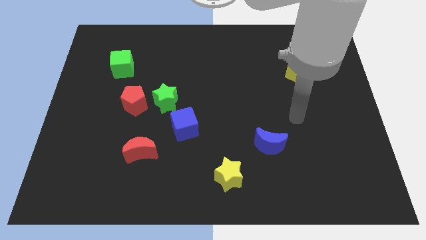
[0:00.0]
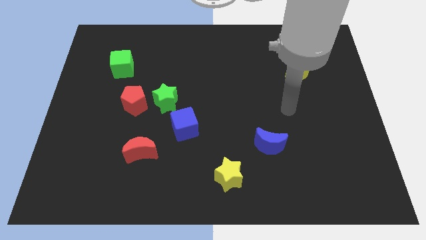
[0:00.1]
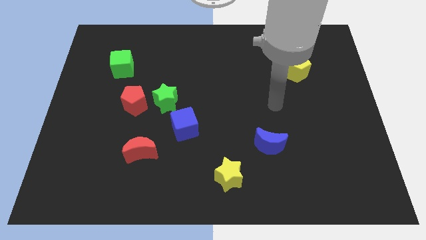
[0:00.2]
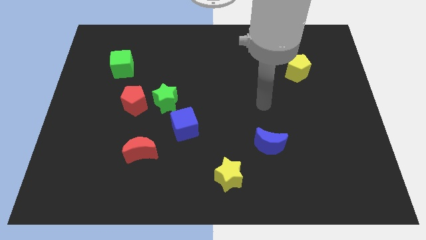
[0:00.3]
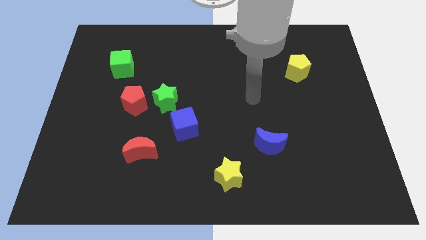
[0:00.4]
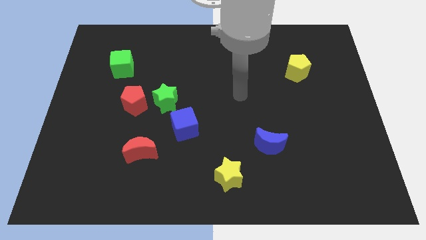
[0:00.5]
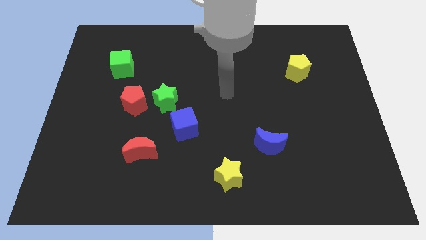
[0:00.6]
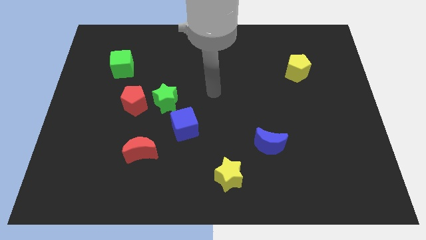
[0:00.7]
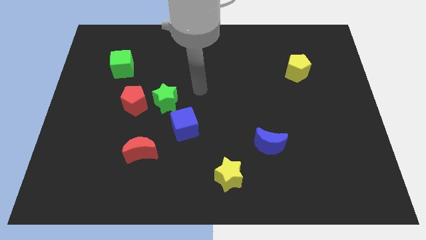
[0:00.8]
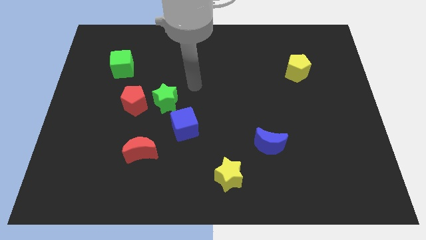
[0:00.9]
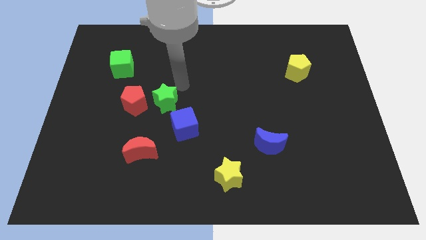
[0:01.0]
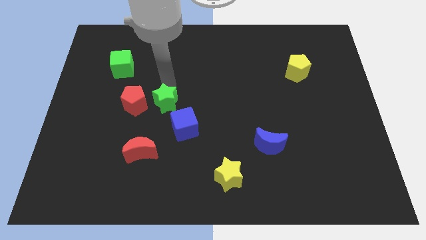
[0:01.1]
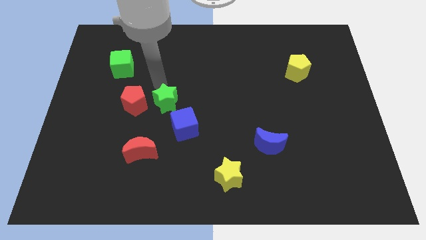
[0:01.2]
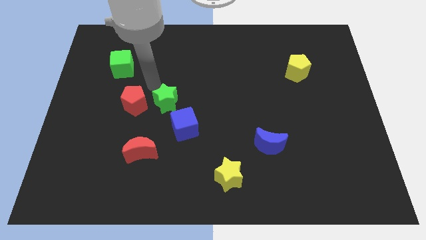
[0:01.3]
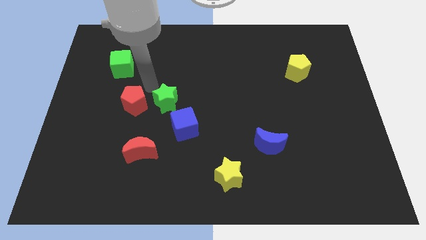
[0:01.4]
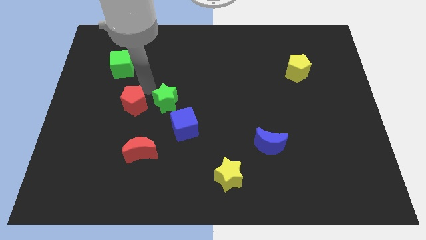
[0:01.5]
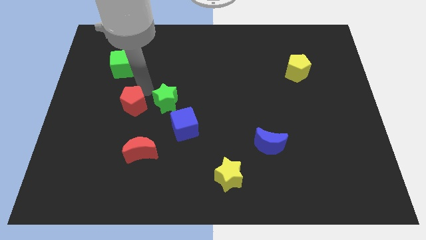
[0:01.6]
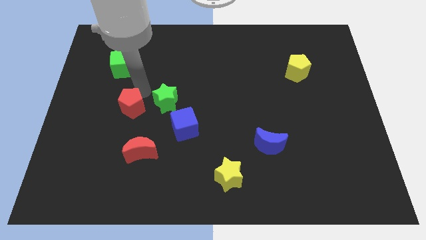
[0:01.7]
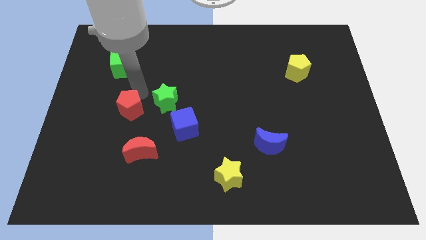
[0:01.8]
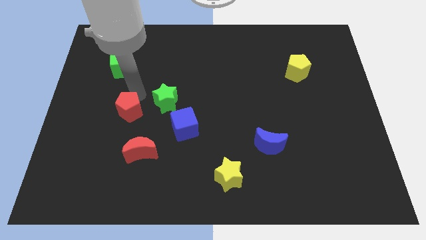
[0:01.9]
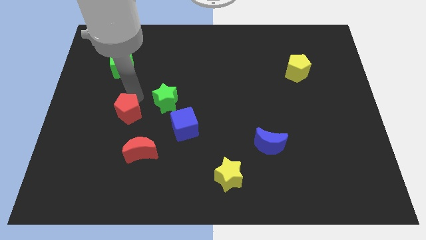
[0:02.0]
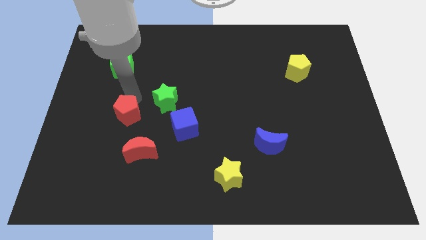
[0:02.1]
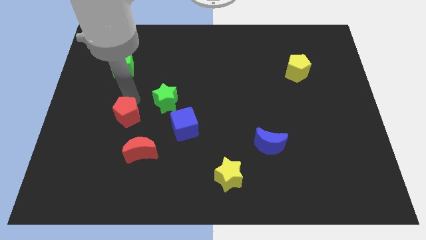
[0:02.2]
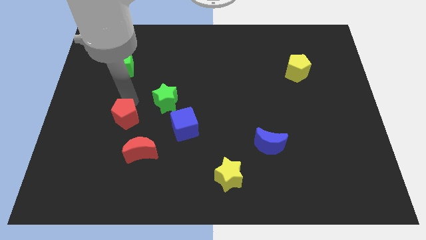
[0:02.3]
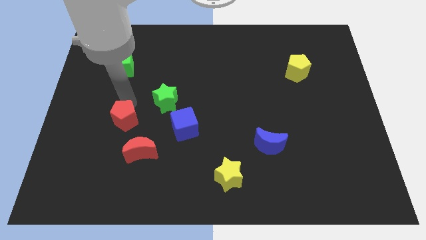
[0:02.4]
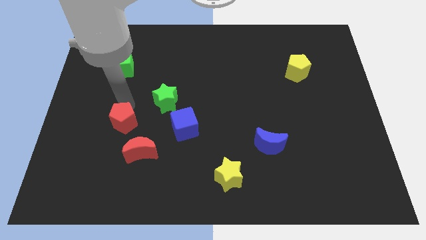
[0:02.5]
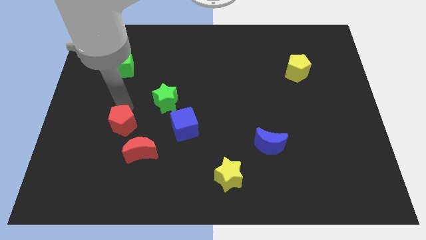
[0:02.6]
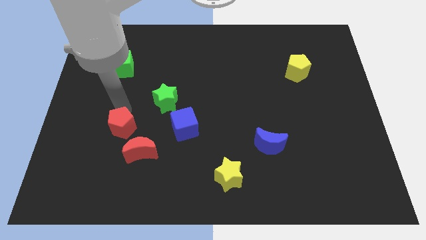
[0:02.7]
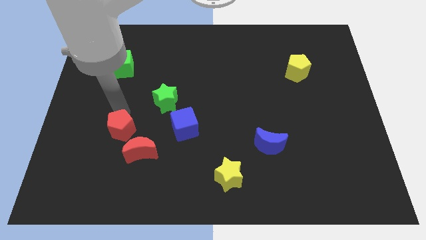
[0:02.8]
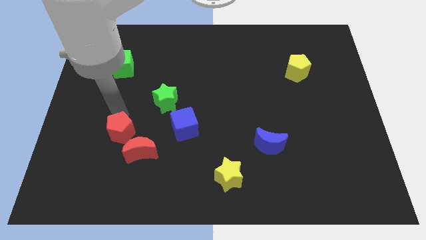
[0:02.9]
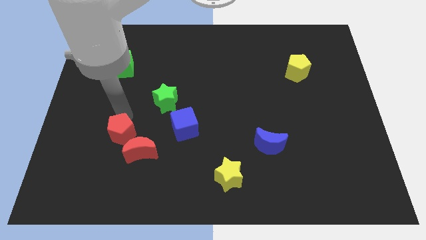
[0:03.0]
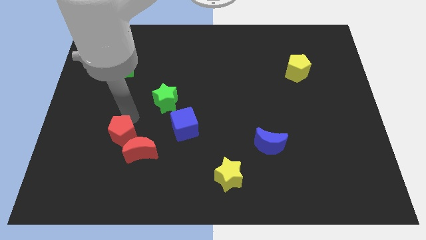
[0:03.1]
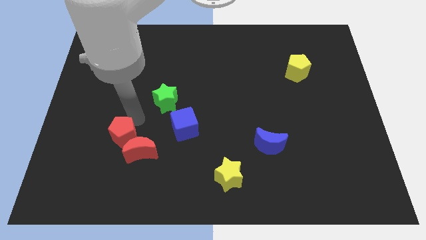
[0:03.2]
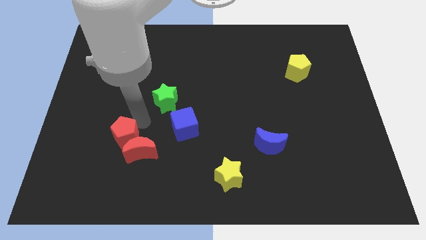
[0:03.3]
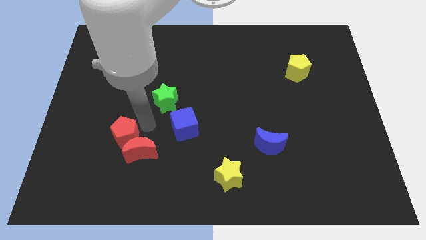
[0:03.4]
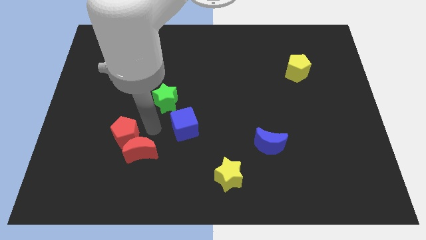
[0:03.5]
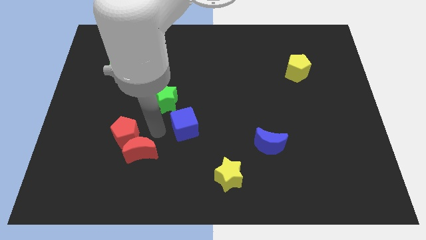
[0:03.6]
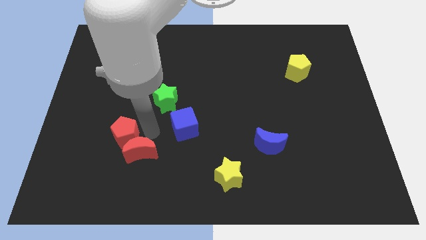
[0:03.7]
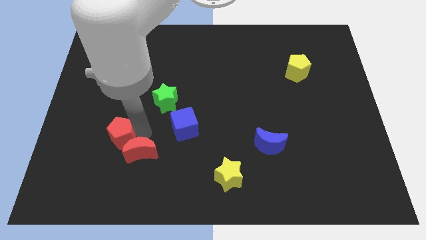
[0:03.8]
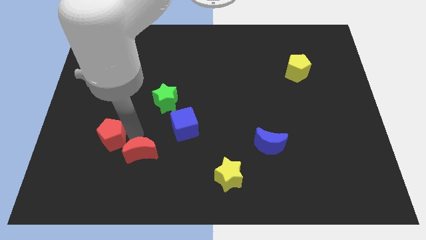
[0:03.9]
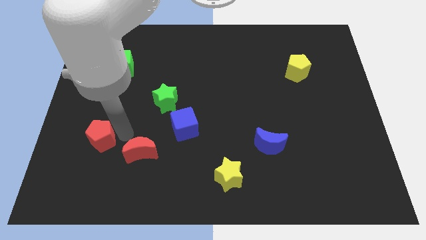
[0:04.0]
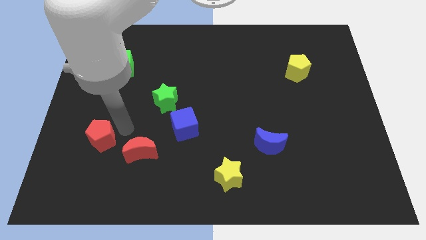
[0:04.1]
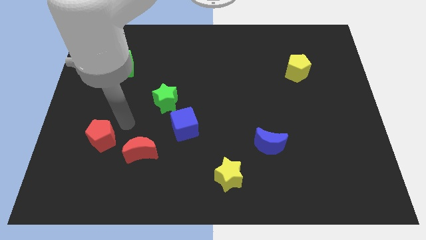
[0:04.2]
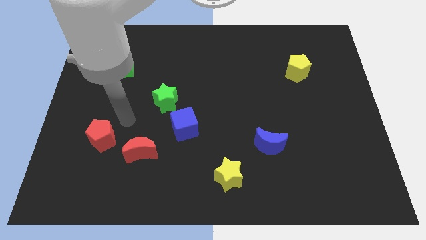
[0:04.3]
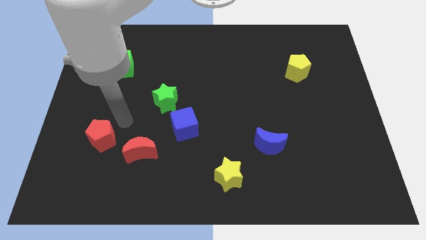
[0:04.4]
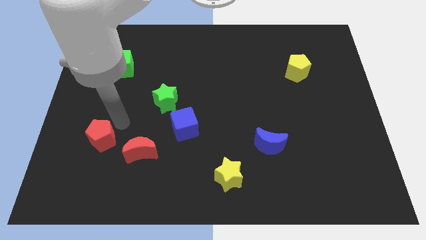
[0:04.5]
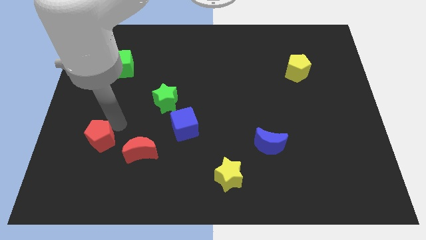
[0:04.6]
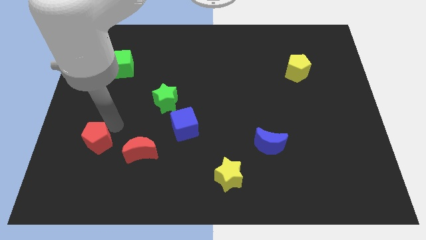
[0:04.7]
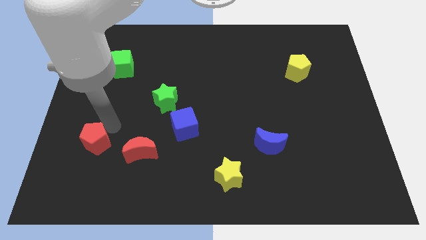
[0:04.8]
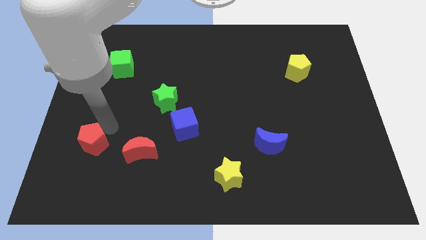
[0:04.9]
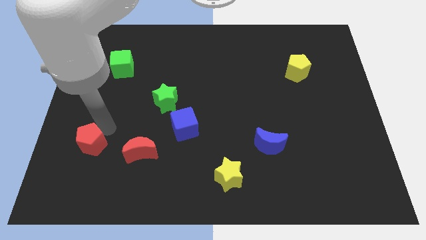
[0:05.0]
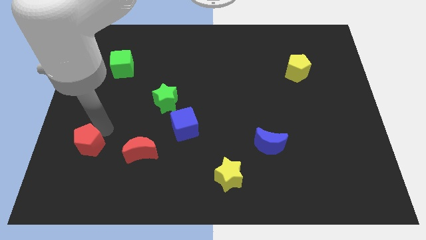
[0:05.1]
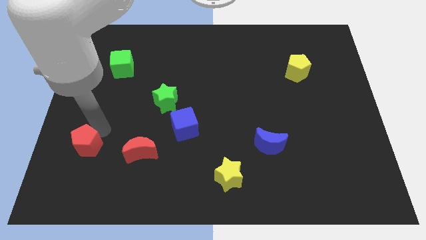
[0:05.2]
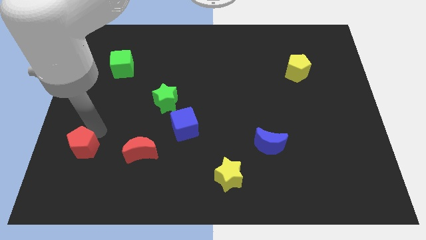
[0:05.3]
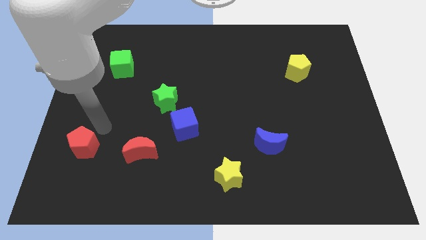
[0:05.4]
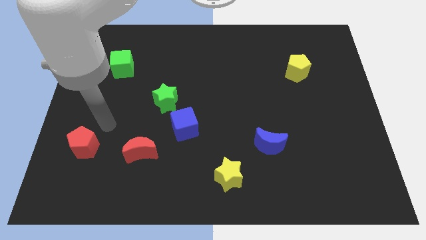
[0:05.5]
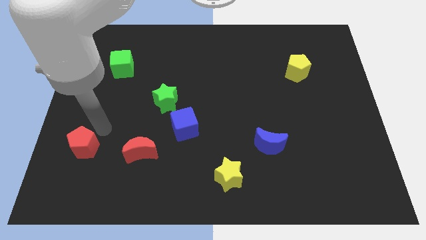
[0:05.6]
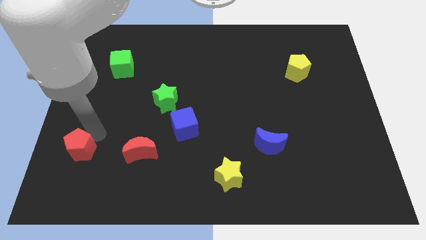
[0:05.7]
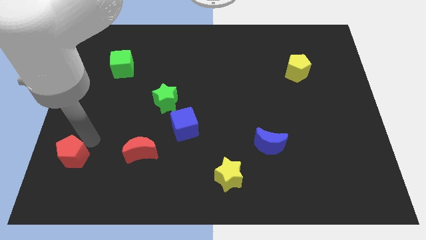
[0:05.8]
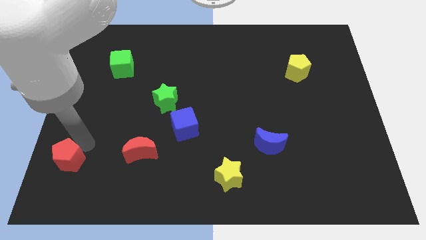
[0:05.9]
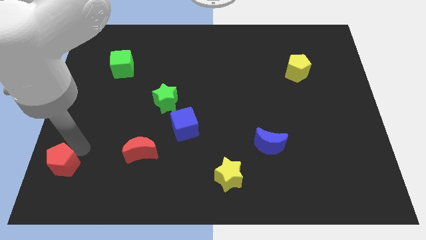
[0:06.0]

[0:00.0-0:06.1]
put the red pentagon to the bottom left corner

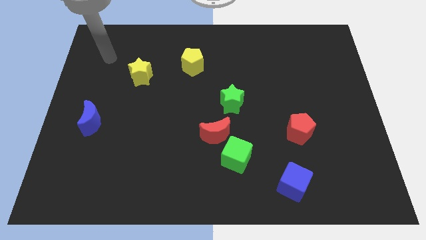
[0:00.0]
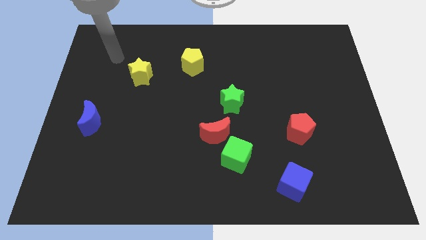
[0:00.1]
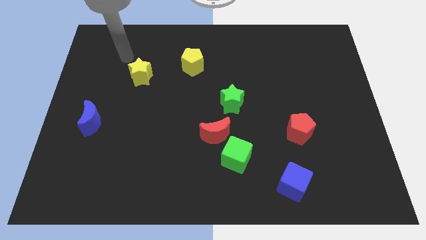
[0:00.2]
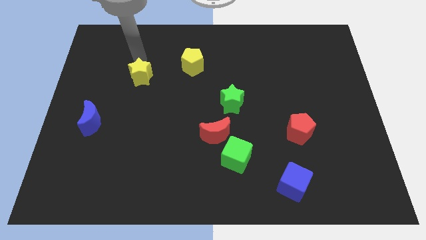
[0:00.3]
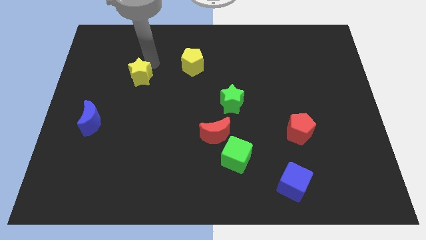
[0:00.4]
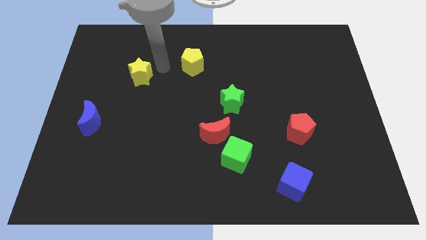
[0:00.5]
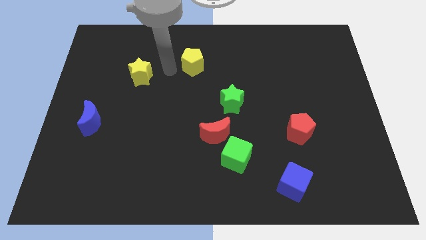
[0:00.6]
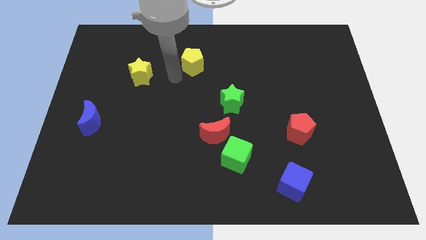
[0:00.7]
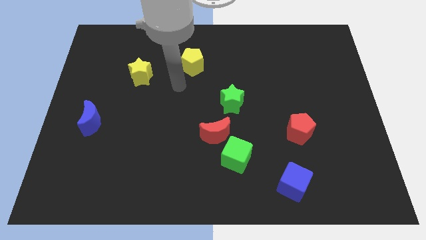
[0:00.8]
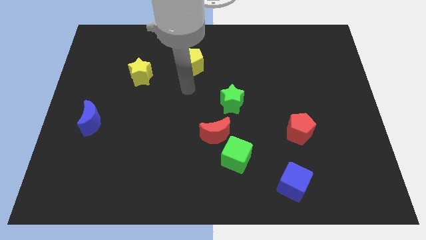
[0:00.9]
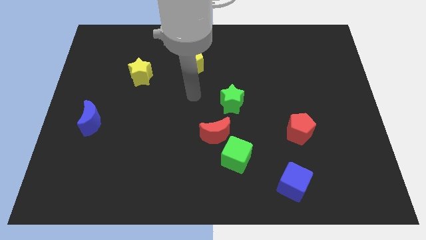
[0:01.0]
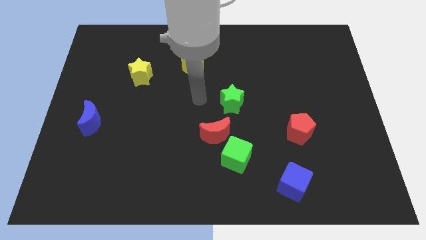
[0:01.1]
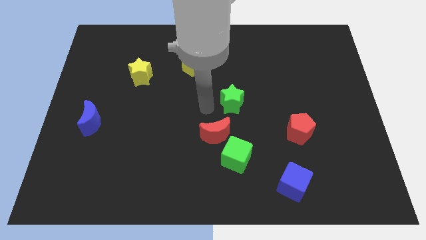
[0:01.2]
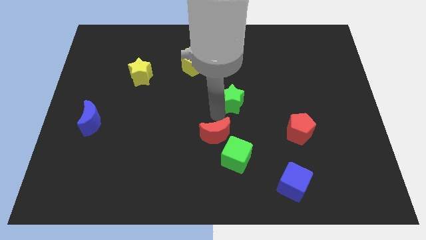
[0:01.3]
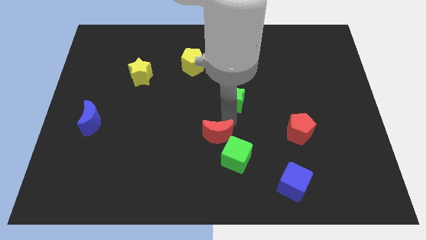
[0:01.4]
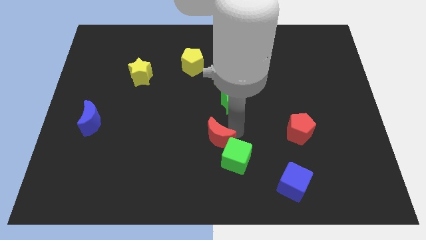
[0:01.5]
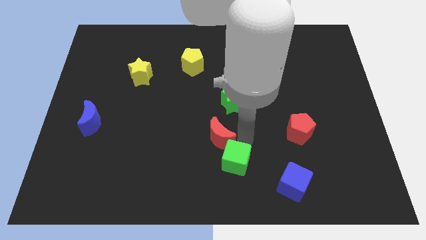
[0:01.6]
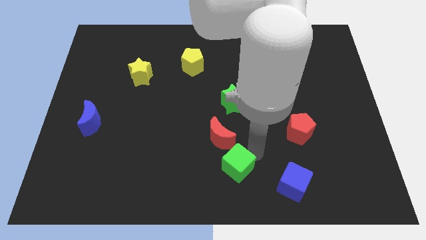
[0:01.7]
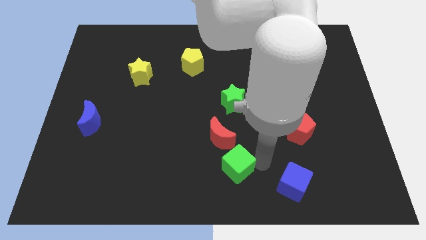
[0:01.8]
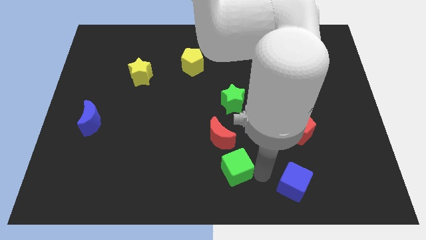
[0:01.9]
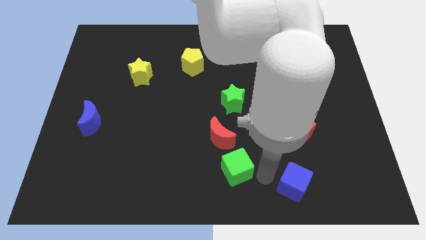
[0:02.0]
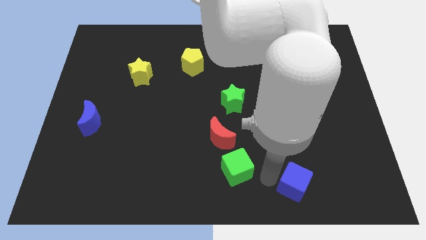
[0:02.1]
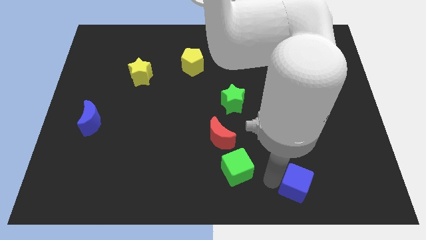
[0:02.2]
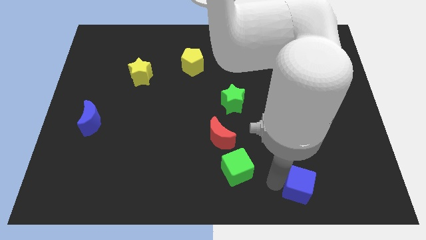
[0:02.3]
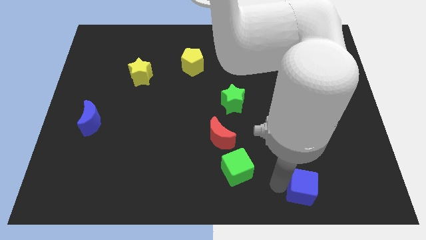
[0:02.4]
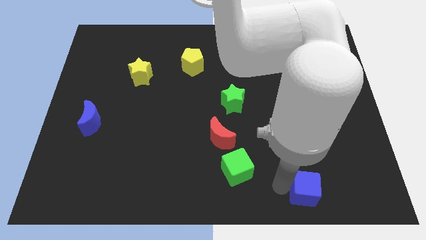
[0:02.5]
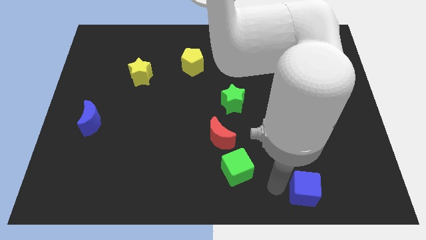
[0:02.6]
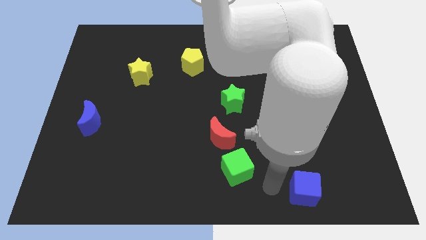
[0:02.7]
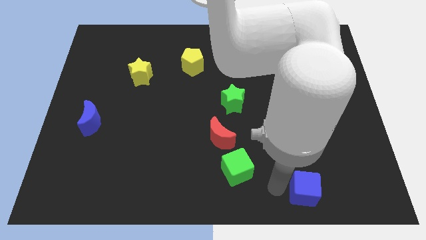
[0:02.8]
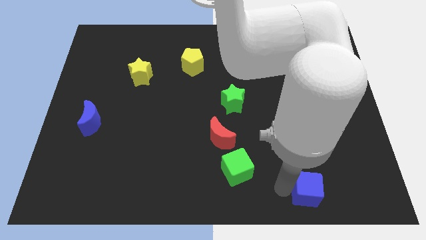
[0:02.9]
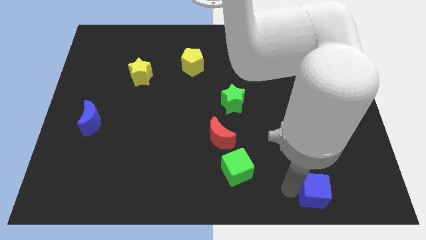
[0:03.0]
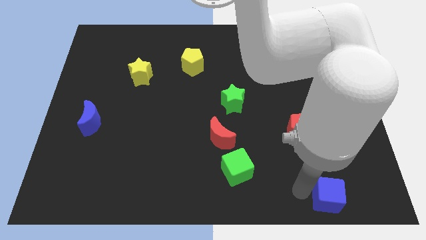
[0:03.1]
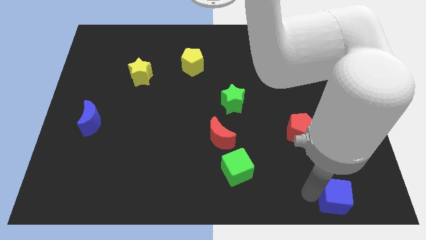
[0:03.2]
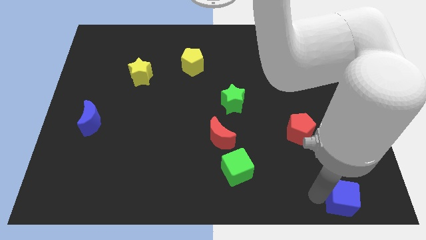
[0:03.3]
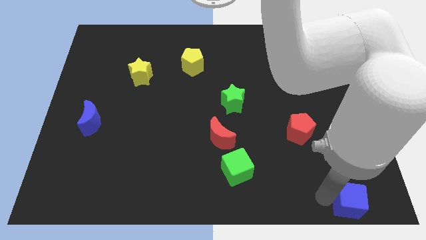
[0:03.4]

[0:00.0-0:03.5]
slide the blue cube to the lower right corner
